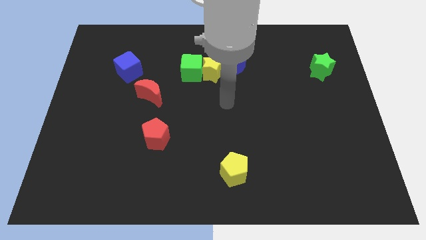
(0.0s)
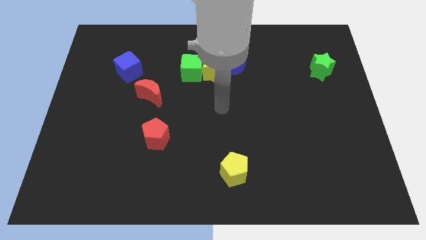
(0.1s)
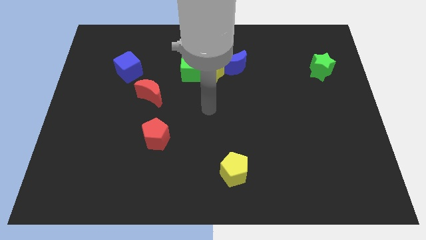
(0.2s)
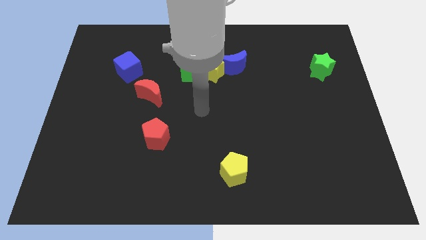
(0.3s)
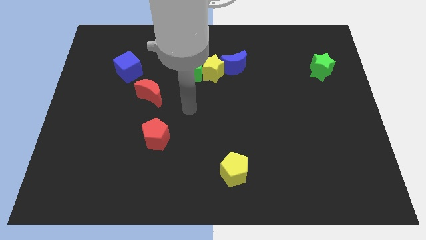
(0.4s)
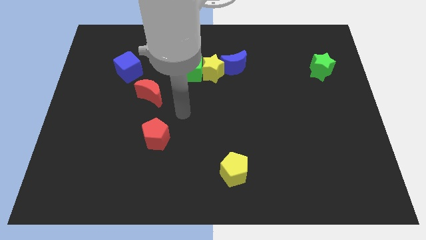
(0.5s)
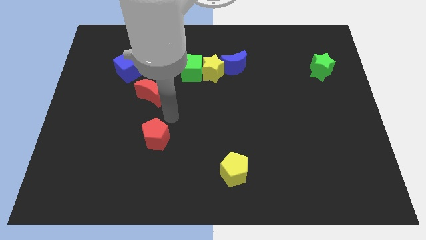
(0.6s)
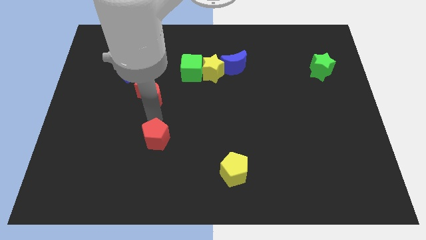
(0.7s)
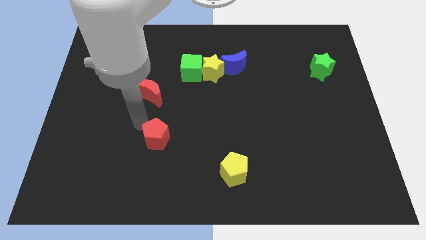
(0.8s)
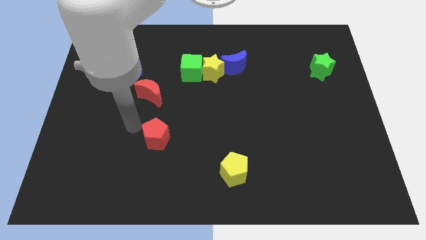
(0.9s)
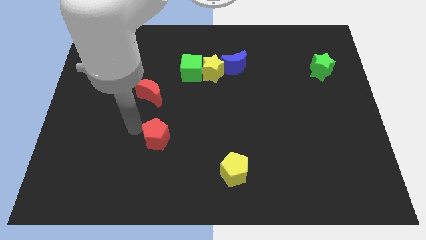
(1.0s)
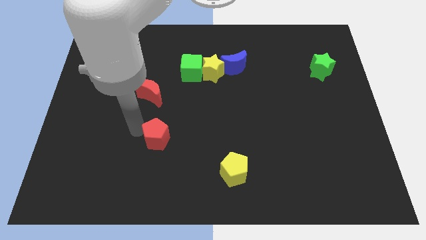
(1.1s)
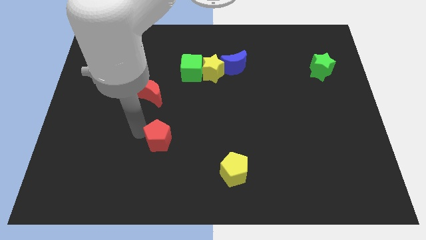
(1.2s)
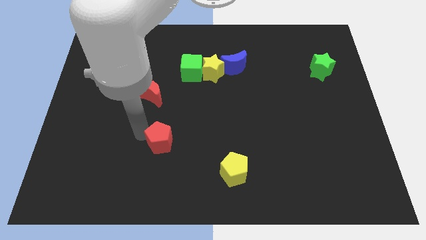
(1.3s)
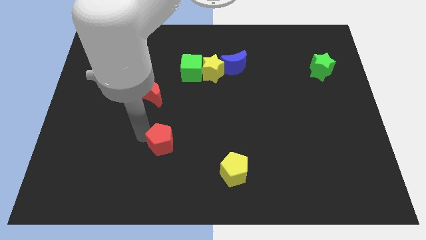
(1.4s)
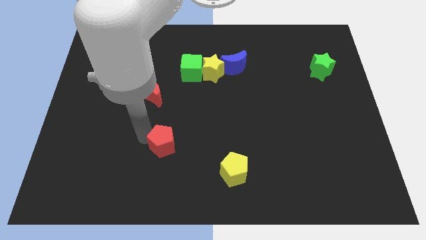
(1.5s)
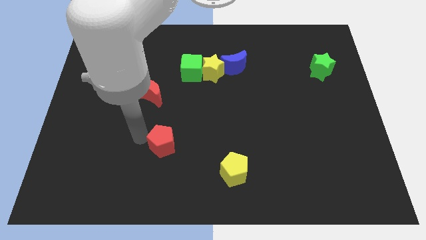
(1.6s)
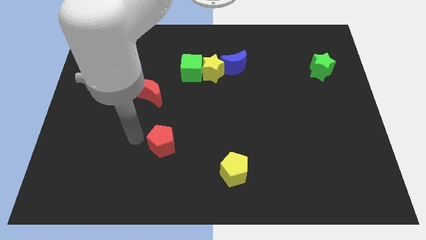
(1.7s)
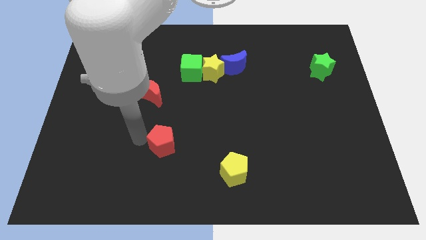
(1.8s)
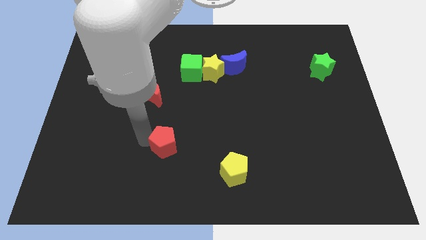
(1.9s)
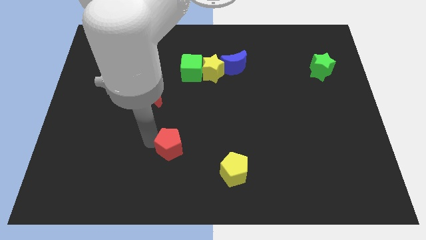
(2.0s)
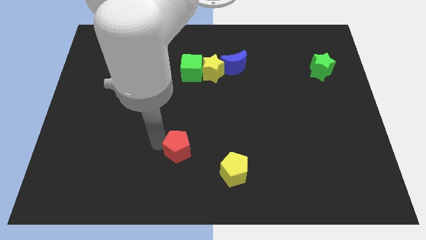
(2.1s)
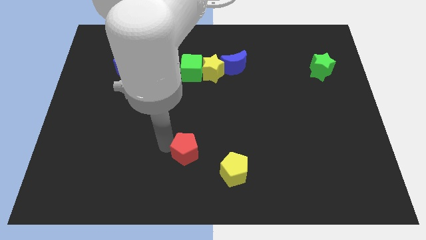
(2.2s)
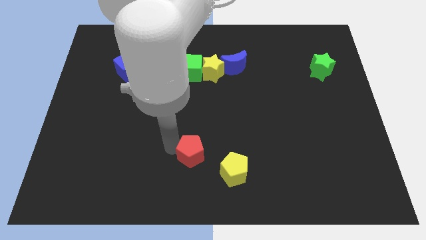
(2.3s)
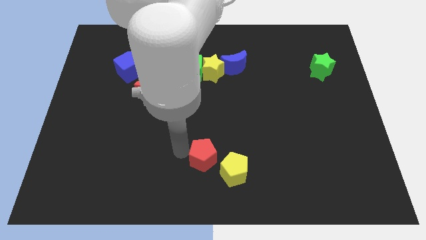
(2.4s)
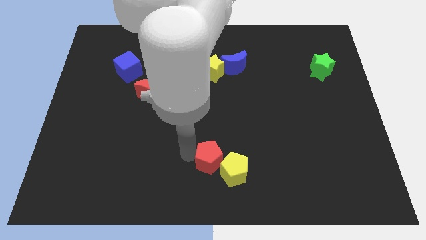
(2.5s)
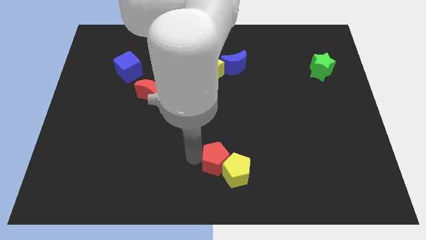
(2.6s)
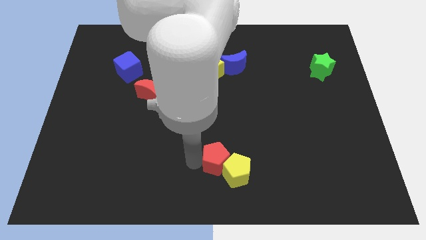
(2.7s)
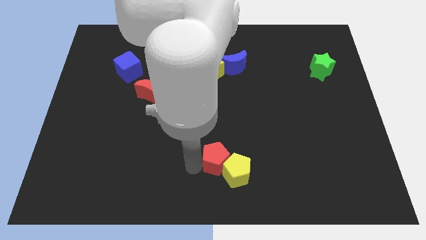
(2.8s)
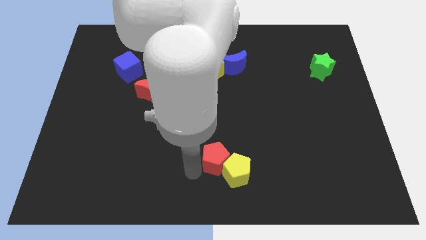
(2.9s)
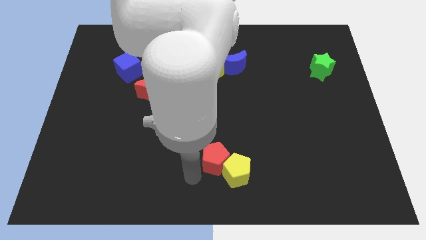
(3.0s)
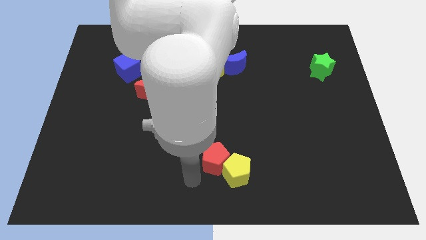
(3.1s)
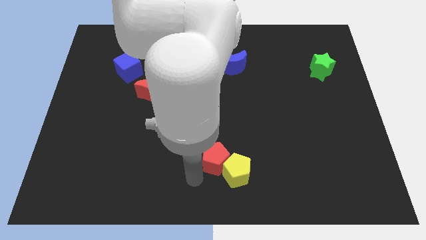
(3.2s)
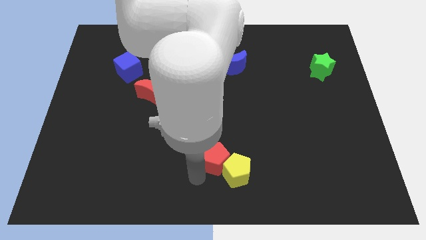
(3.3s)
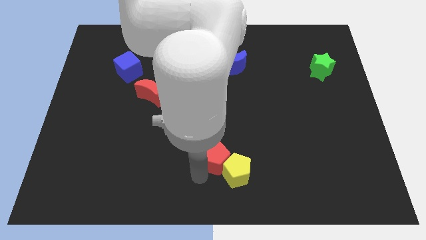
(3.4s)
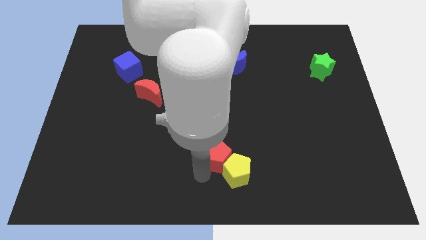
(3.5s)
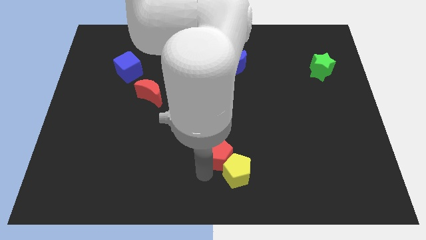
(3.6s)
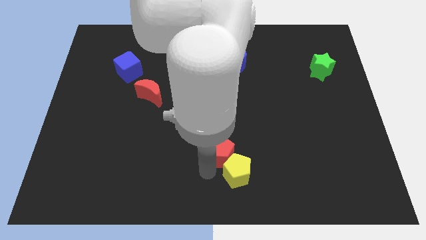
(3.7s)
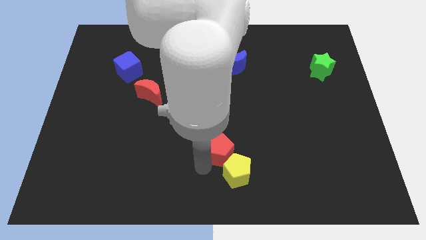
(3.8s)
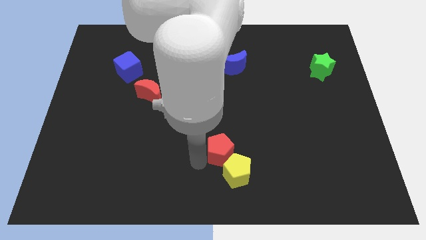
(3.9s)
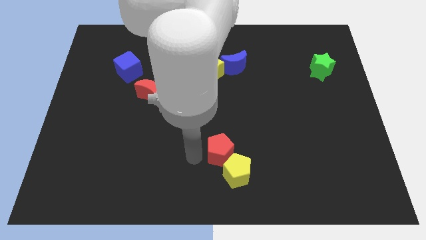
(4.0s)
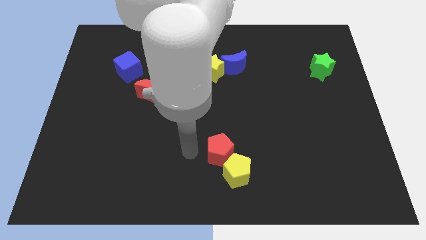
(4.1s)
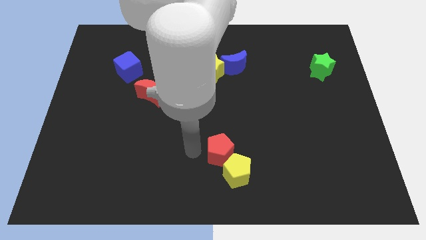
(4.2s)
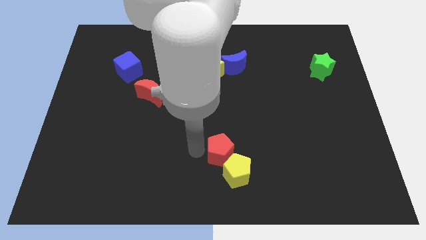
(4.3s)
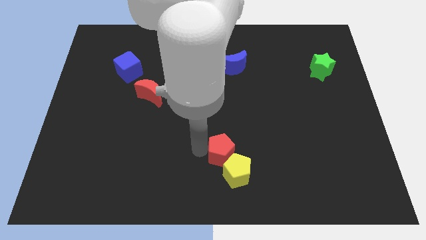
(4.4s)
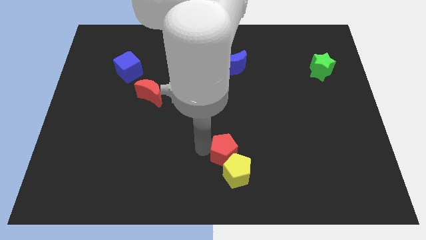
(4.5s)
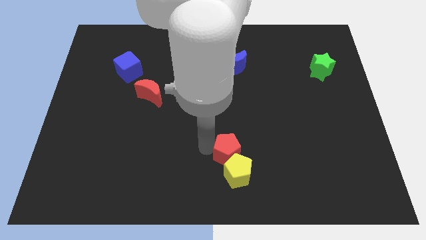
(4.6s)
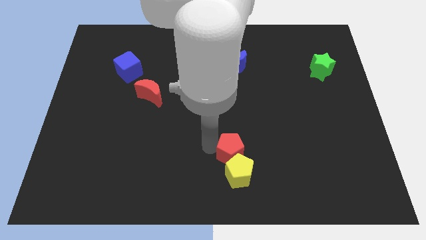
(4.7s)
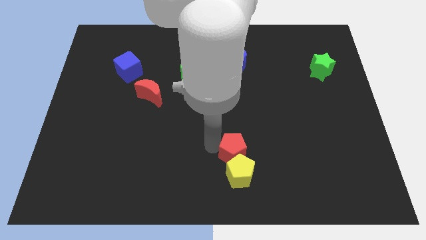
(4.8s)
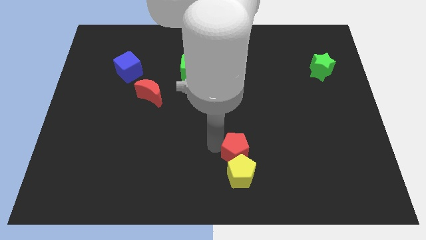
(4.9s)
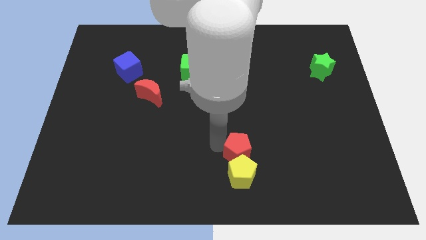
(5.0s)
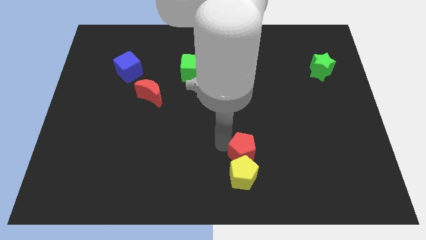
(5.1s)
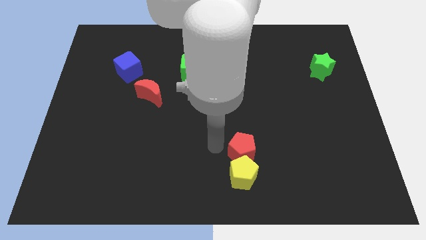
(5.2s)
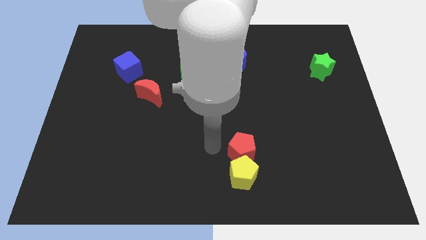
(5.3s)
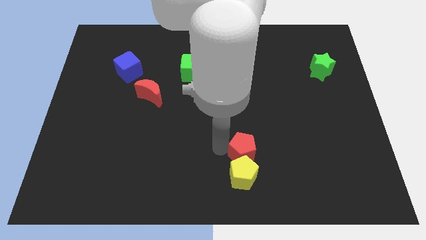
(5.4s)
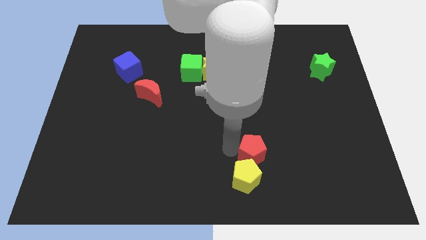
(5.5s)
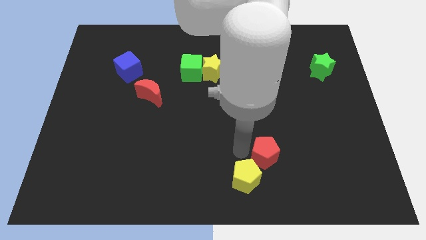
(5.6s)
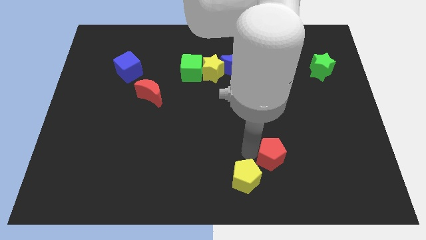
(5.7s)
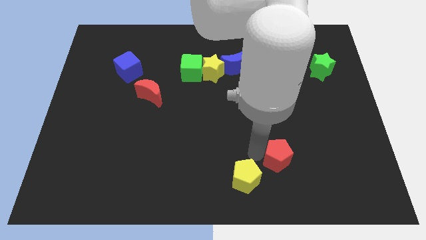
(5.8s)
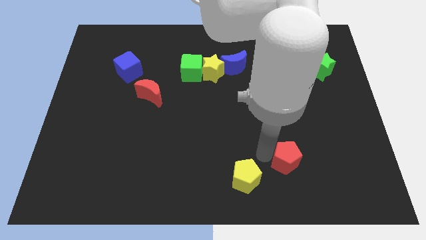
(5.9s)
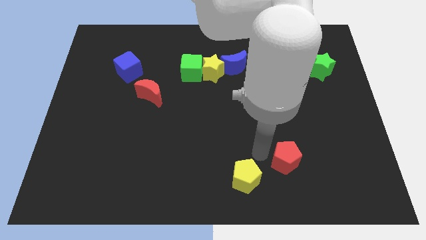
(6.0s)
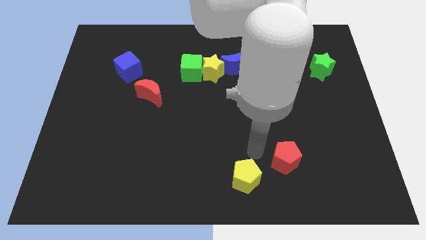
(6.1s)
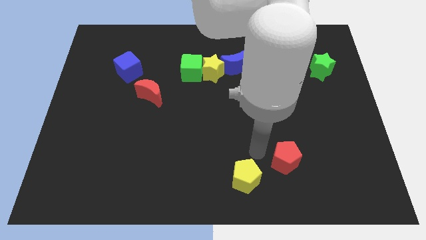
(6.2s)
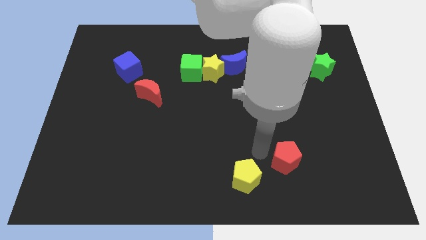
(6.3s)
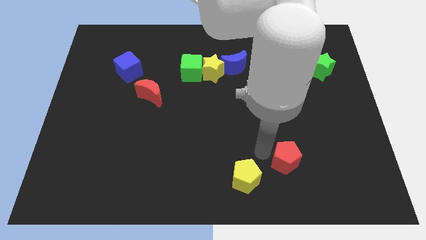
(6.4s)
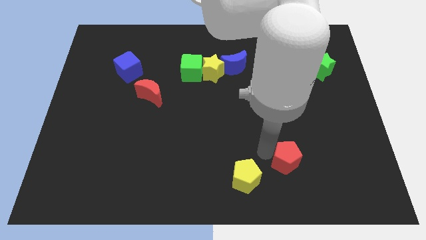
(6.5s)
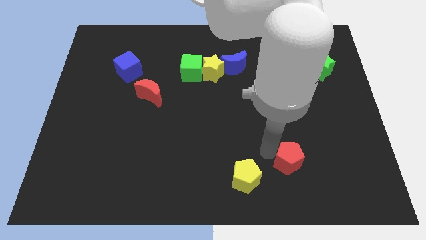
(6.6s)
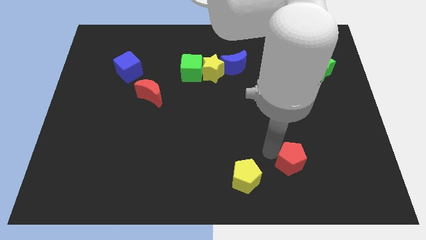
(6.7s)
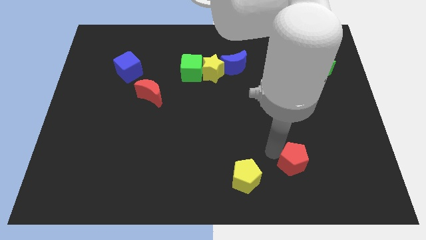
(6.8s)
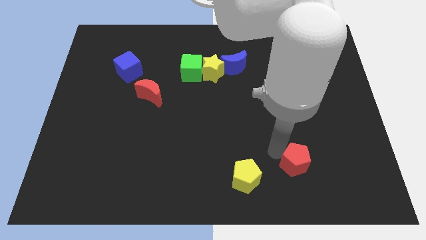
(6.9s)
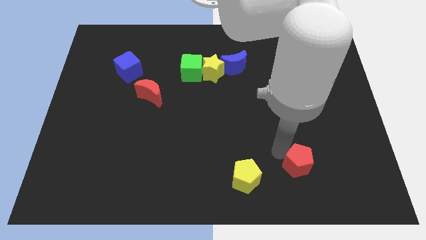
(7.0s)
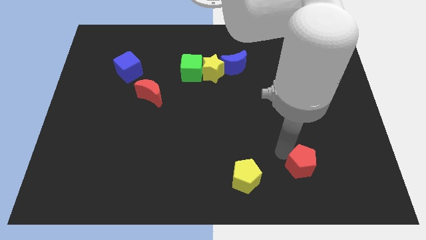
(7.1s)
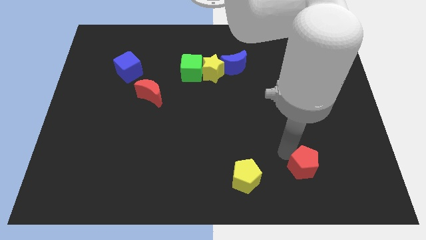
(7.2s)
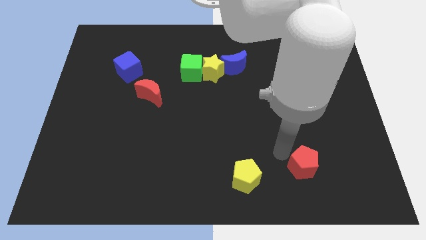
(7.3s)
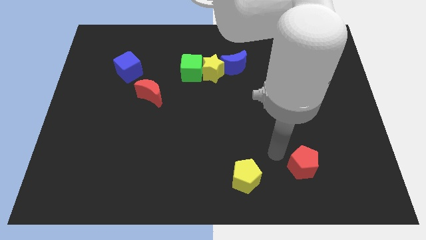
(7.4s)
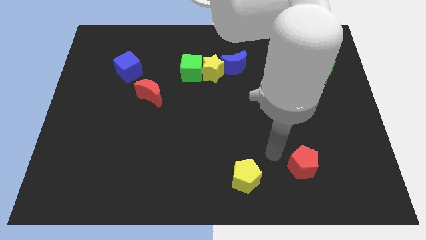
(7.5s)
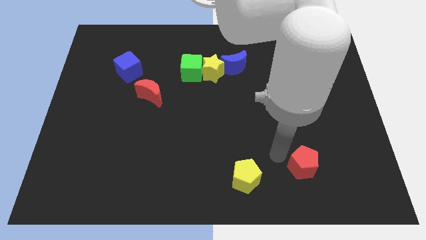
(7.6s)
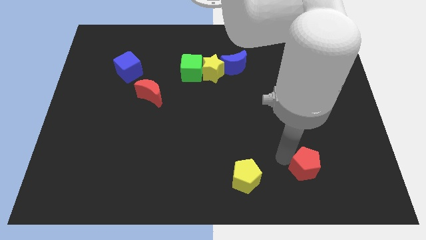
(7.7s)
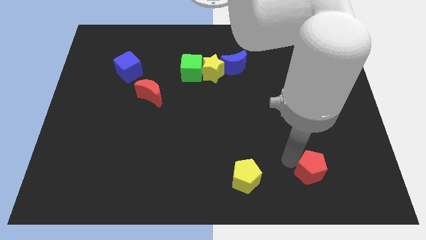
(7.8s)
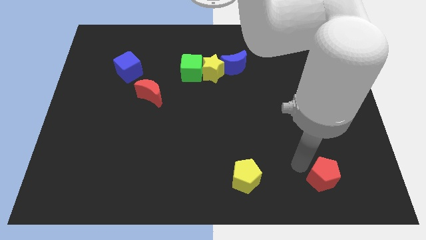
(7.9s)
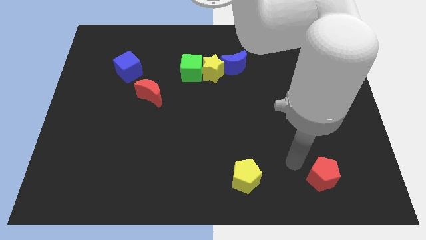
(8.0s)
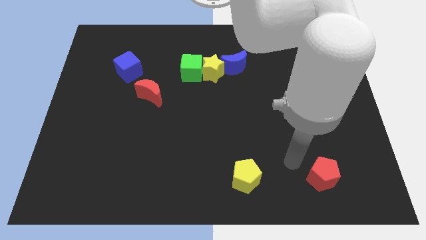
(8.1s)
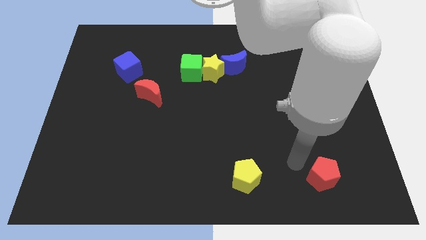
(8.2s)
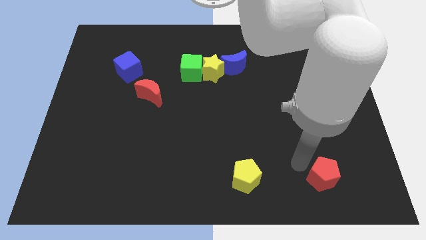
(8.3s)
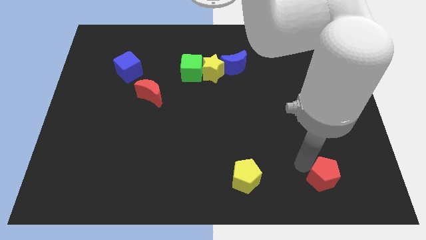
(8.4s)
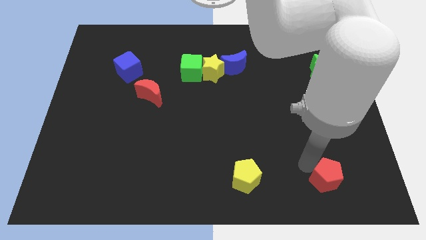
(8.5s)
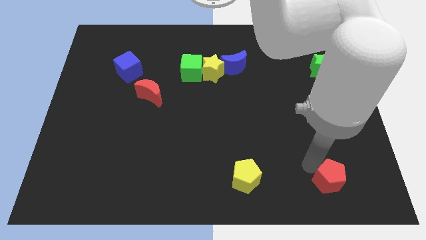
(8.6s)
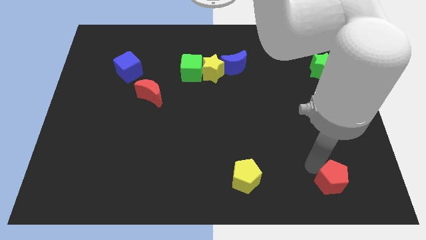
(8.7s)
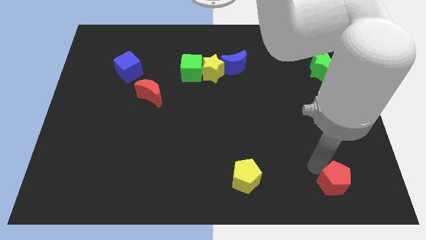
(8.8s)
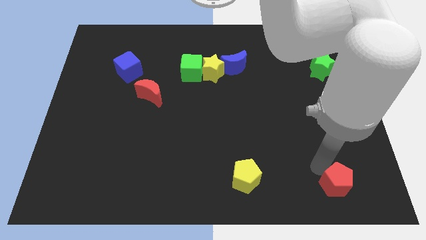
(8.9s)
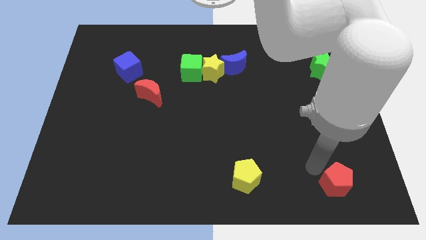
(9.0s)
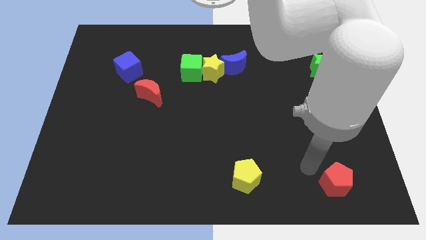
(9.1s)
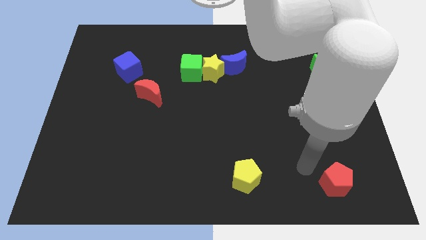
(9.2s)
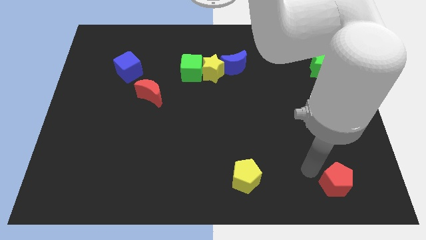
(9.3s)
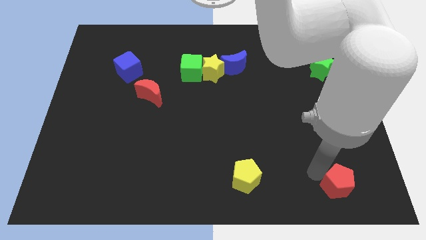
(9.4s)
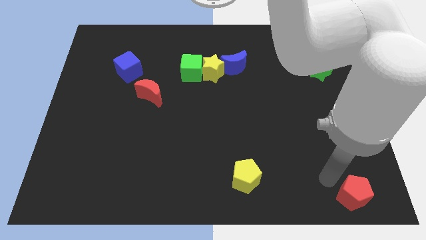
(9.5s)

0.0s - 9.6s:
move the red pentagon to the bottom right corner
